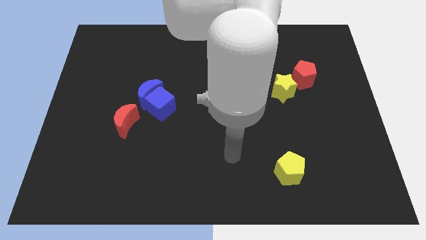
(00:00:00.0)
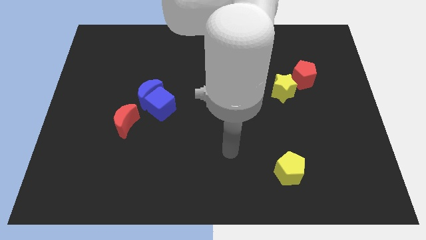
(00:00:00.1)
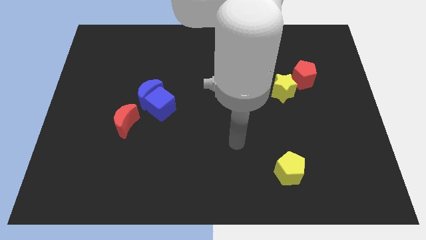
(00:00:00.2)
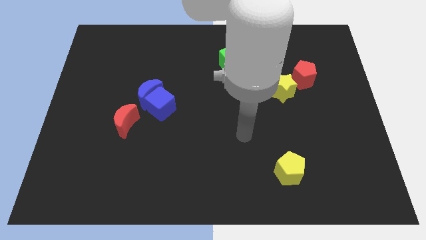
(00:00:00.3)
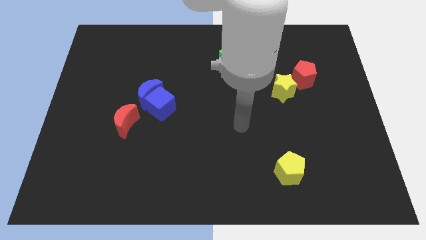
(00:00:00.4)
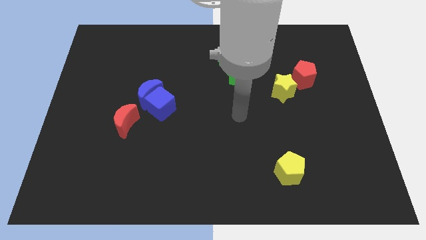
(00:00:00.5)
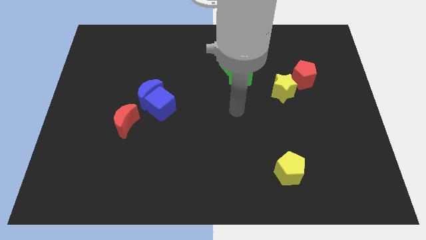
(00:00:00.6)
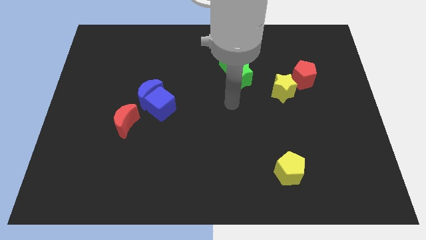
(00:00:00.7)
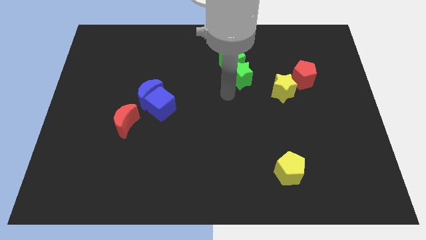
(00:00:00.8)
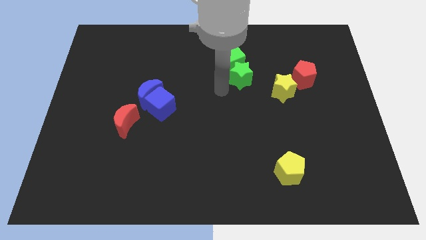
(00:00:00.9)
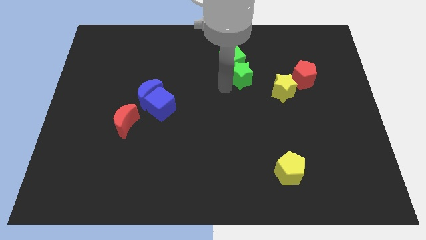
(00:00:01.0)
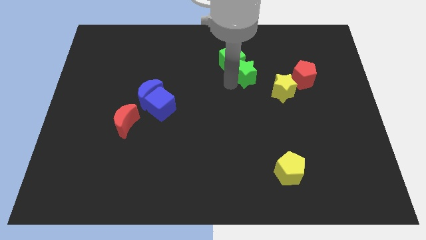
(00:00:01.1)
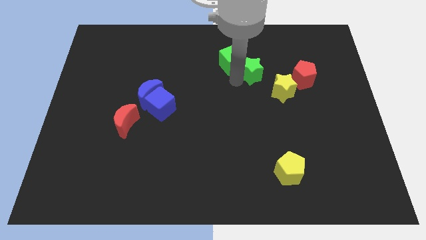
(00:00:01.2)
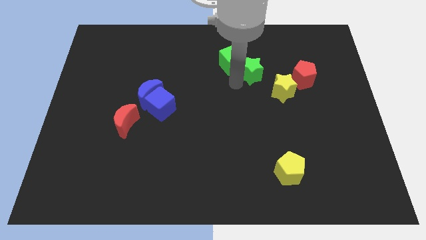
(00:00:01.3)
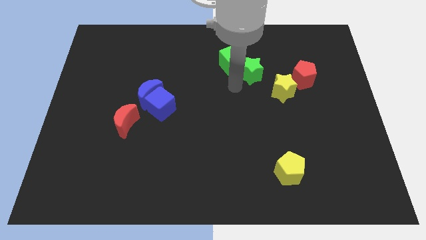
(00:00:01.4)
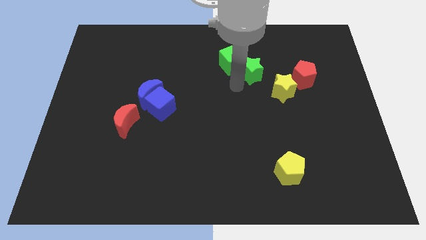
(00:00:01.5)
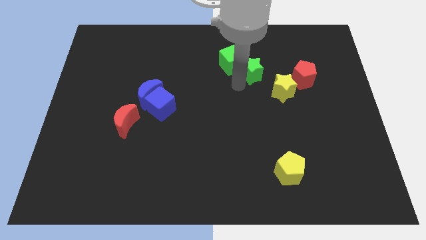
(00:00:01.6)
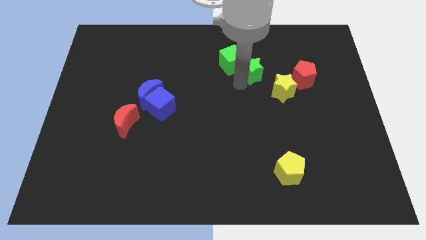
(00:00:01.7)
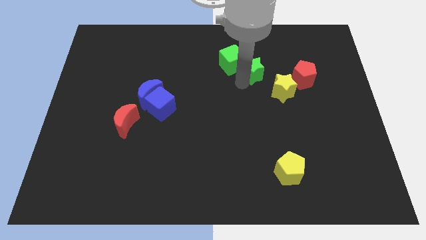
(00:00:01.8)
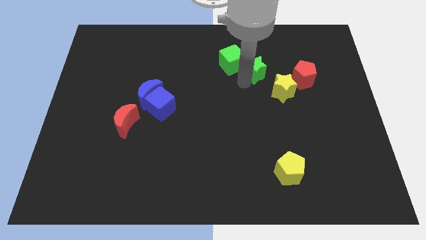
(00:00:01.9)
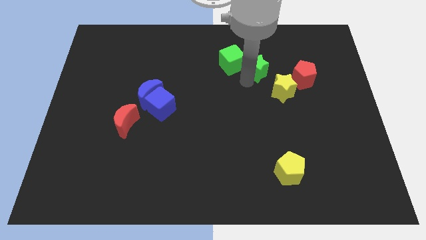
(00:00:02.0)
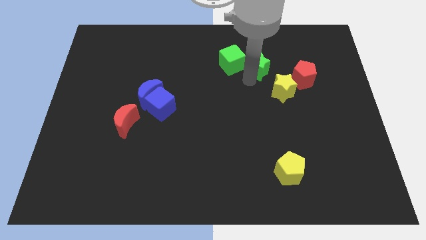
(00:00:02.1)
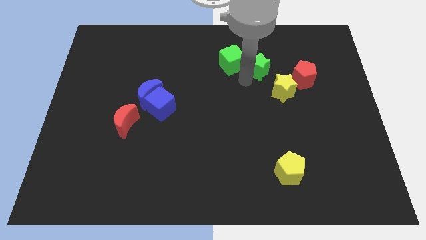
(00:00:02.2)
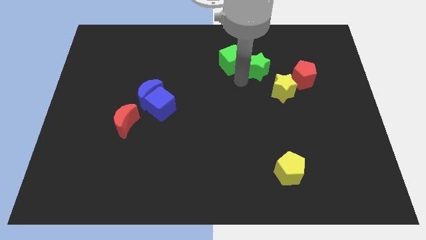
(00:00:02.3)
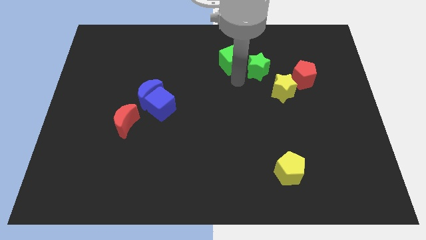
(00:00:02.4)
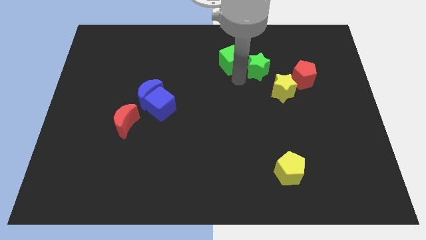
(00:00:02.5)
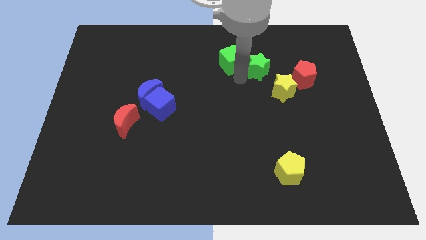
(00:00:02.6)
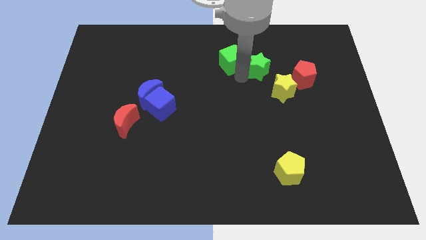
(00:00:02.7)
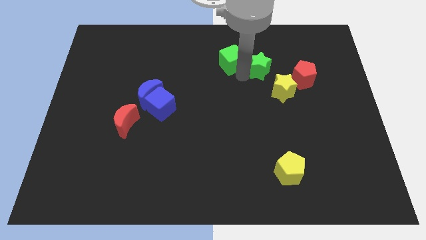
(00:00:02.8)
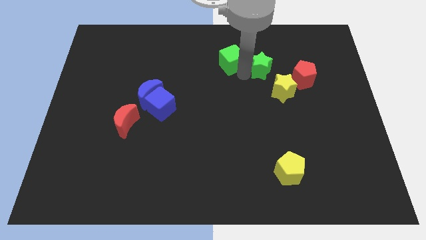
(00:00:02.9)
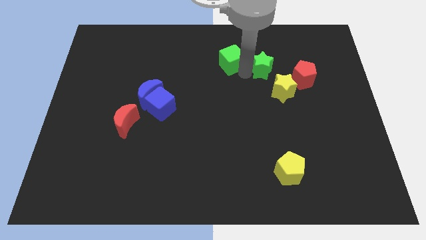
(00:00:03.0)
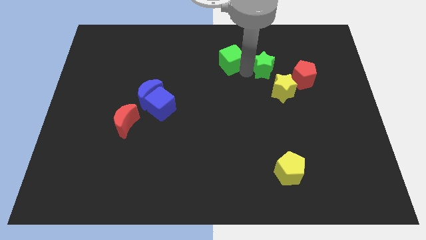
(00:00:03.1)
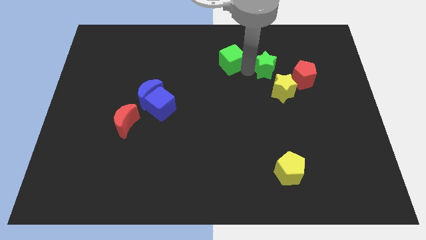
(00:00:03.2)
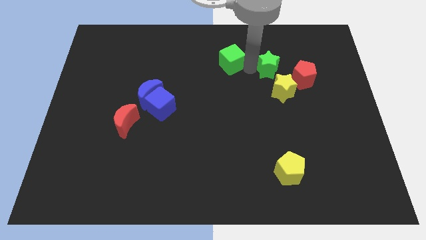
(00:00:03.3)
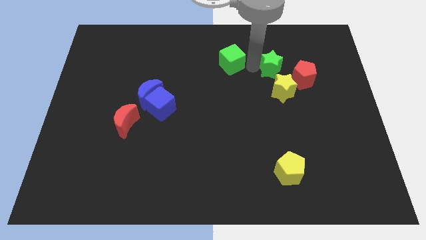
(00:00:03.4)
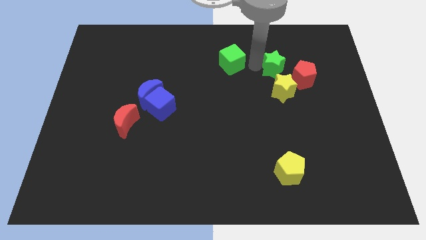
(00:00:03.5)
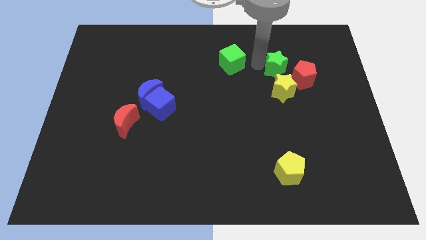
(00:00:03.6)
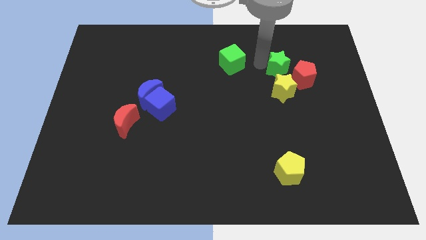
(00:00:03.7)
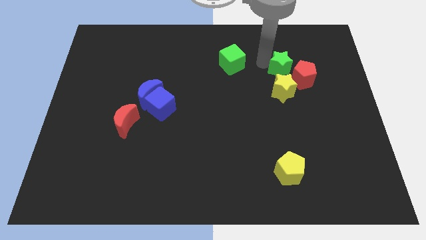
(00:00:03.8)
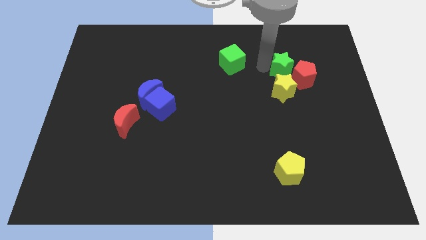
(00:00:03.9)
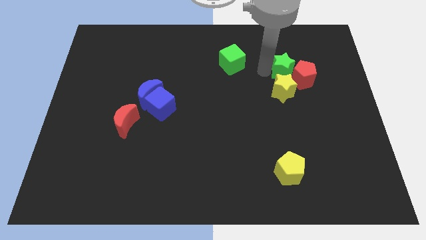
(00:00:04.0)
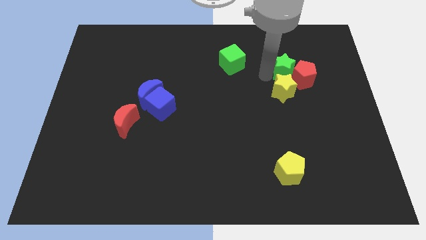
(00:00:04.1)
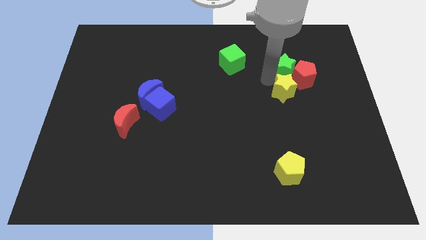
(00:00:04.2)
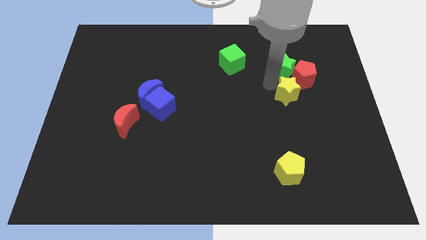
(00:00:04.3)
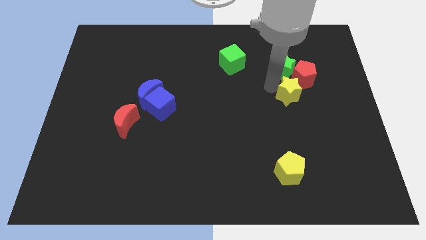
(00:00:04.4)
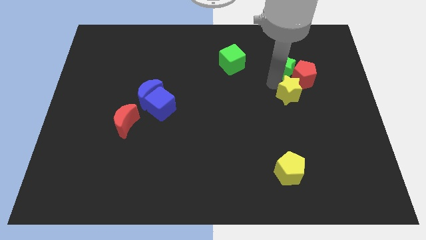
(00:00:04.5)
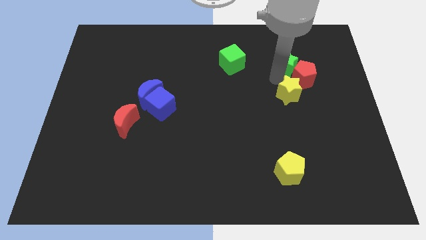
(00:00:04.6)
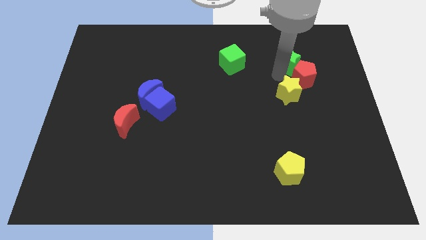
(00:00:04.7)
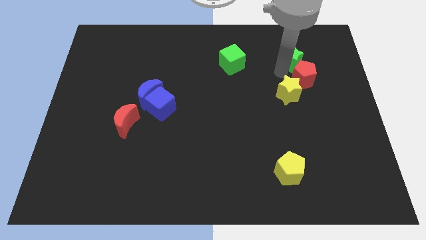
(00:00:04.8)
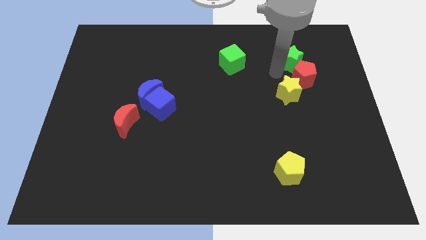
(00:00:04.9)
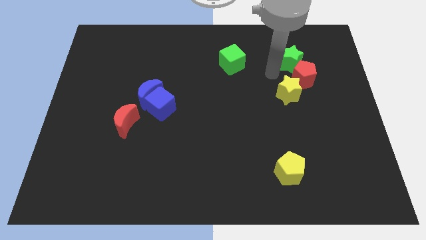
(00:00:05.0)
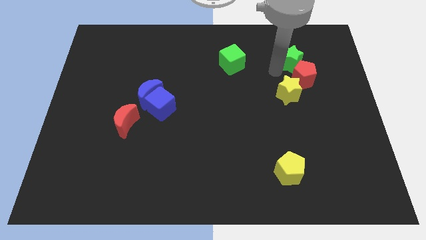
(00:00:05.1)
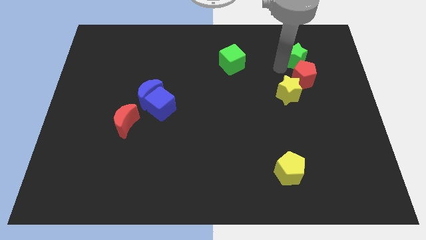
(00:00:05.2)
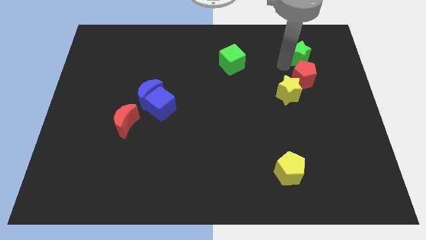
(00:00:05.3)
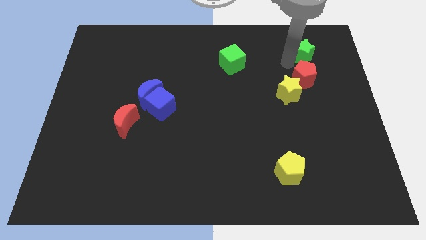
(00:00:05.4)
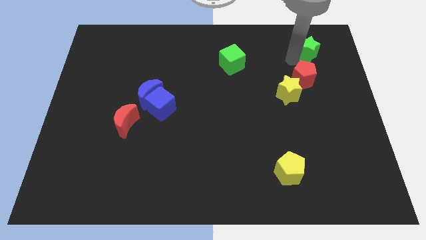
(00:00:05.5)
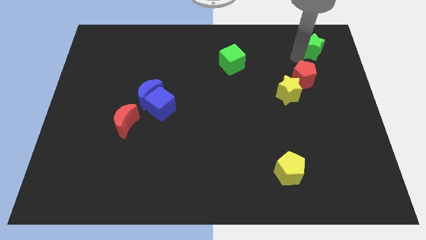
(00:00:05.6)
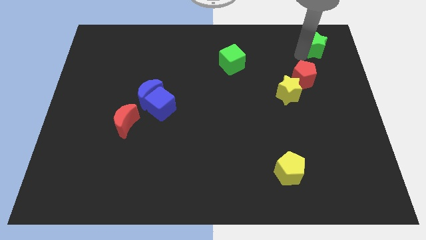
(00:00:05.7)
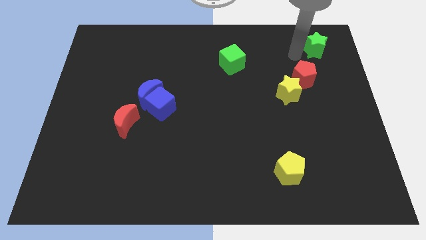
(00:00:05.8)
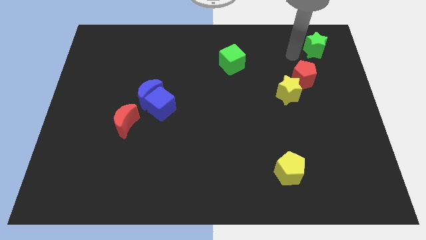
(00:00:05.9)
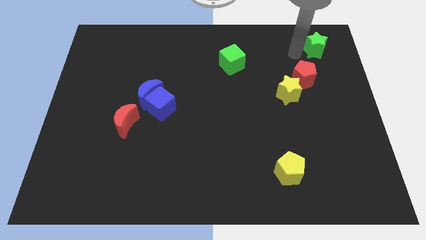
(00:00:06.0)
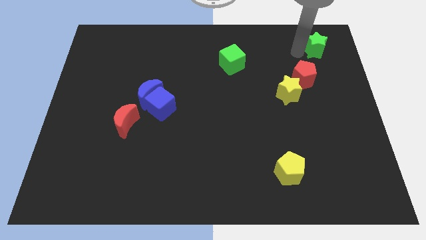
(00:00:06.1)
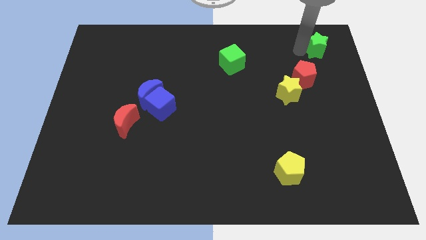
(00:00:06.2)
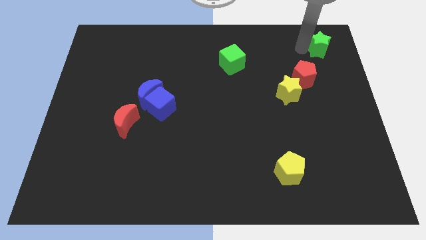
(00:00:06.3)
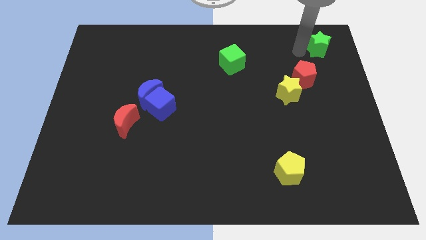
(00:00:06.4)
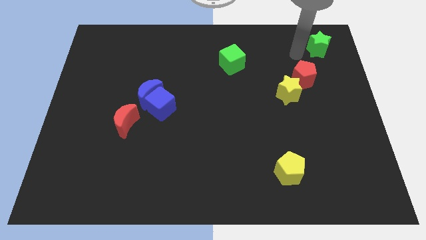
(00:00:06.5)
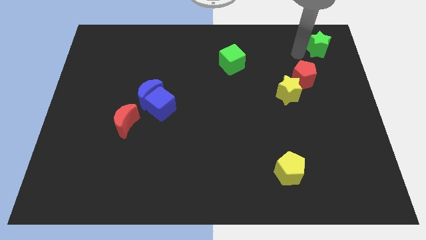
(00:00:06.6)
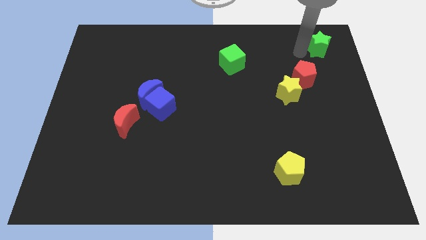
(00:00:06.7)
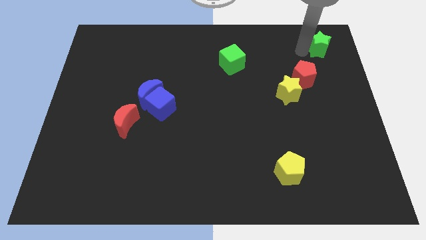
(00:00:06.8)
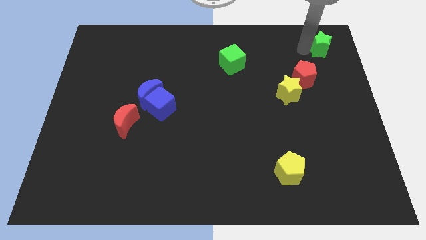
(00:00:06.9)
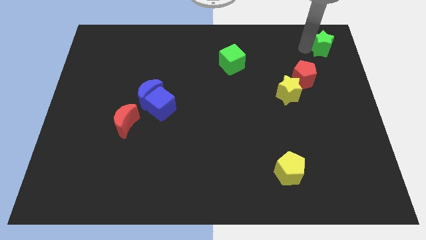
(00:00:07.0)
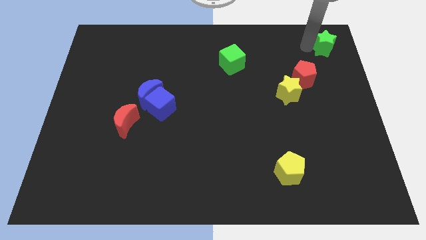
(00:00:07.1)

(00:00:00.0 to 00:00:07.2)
slide the green star to the top right corner
